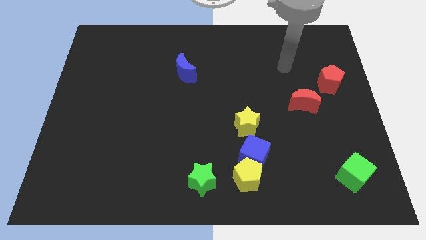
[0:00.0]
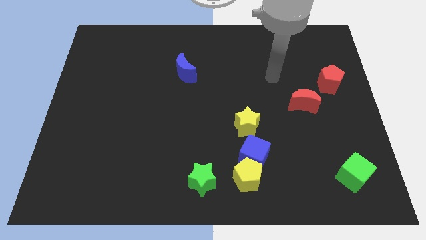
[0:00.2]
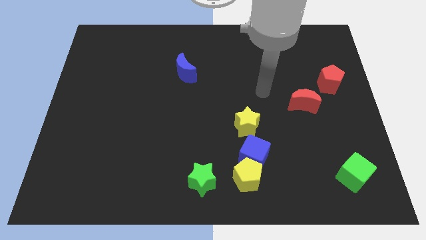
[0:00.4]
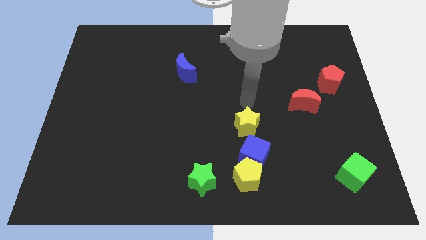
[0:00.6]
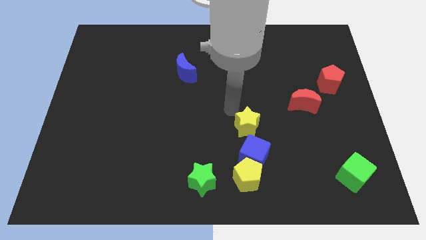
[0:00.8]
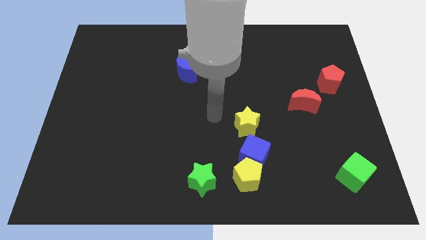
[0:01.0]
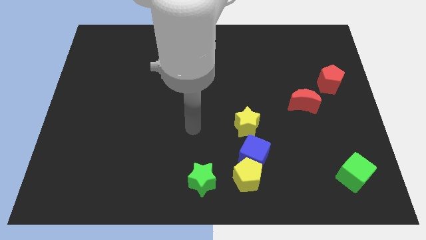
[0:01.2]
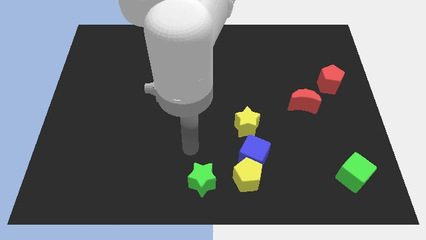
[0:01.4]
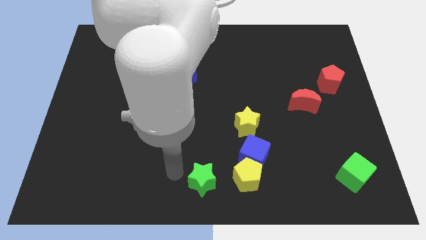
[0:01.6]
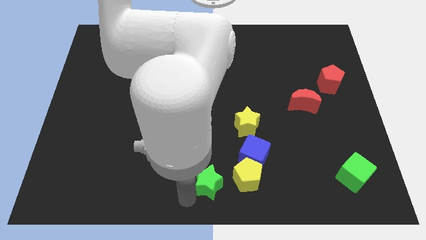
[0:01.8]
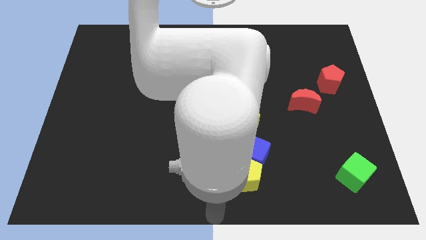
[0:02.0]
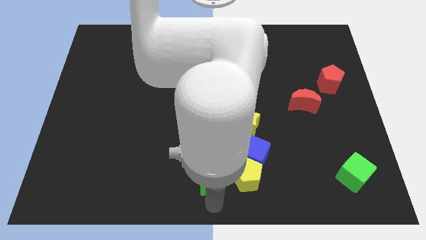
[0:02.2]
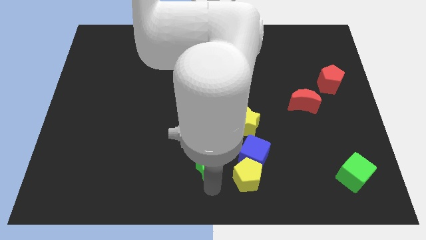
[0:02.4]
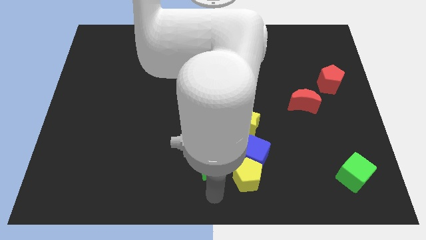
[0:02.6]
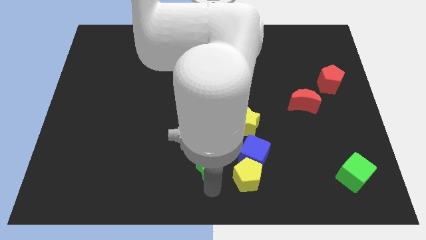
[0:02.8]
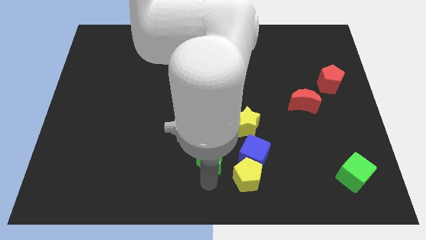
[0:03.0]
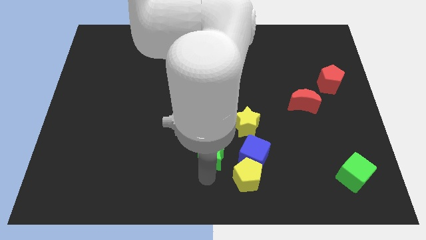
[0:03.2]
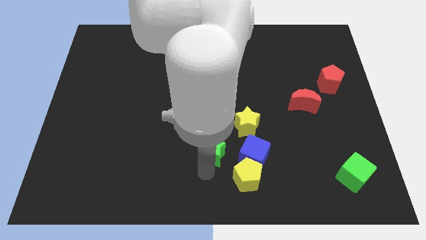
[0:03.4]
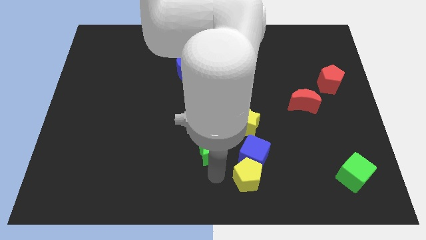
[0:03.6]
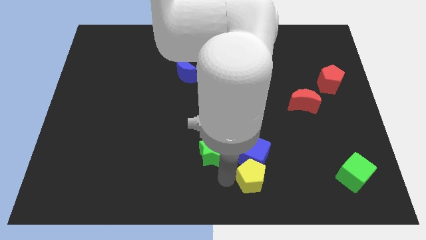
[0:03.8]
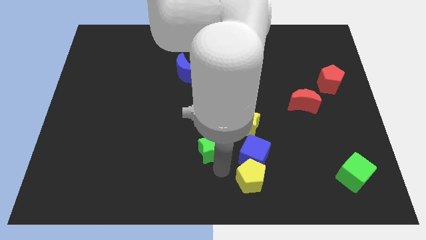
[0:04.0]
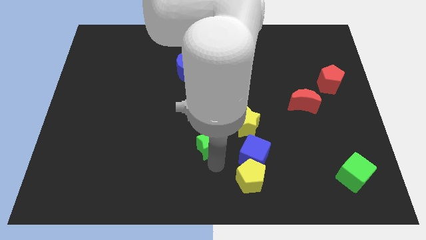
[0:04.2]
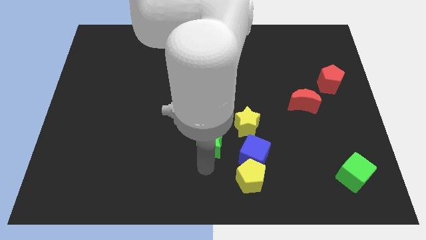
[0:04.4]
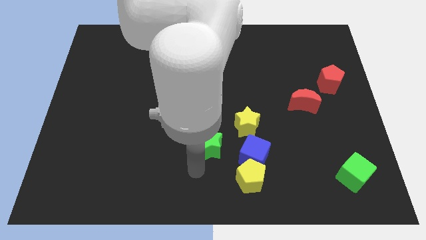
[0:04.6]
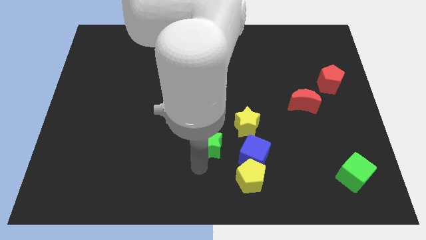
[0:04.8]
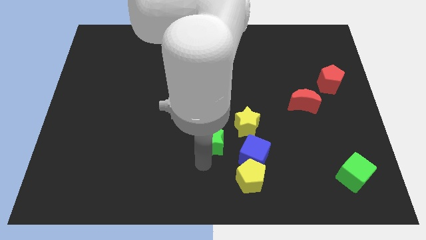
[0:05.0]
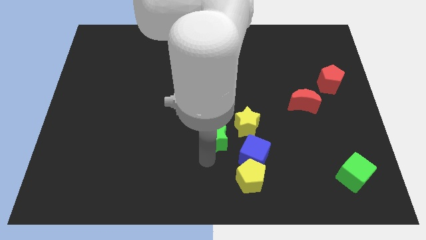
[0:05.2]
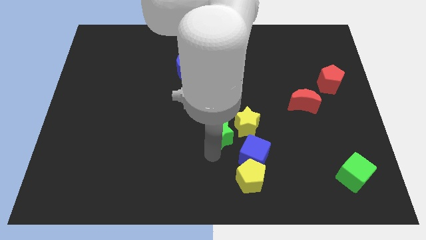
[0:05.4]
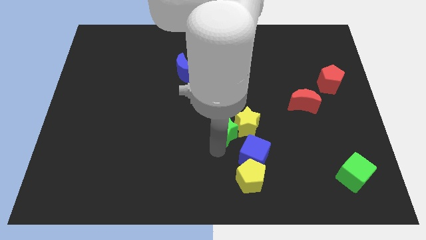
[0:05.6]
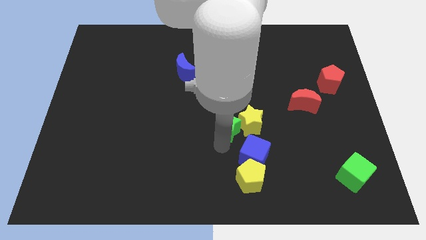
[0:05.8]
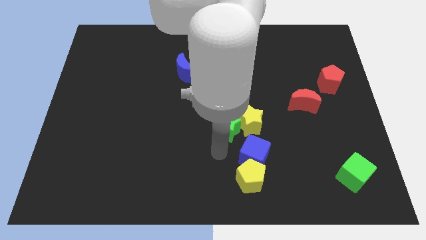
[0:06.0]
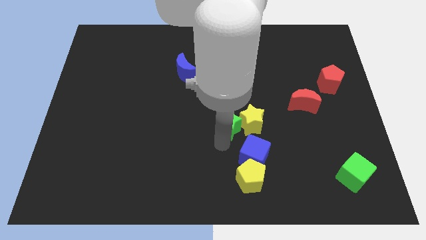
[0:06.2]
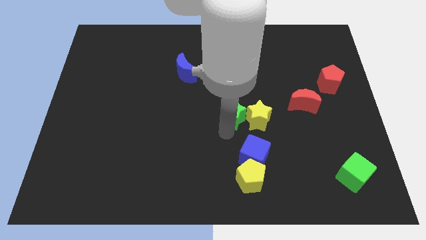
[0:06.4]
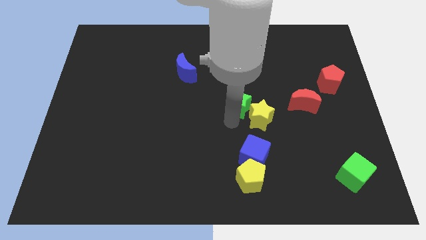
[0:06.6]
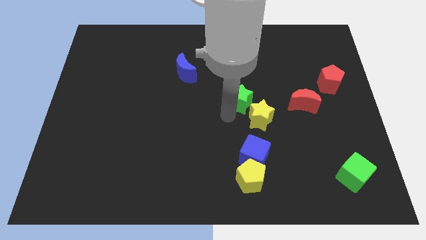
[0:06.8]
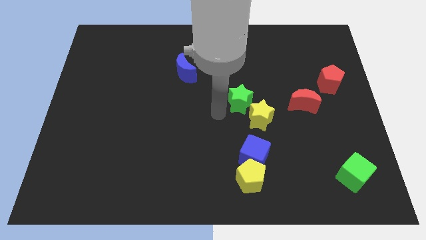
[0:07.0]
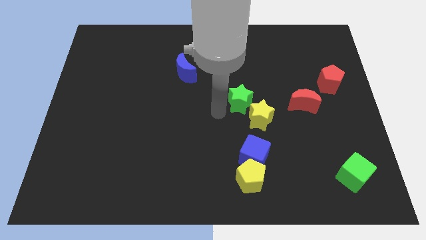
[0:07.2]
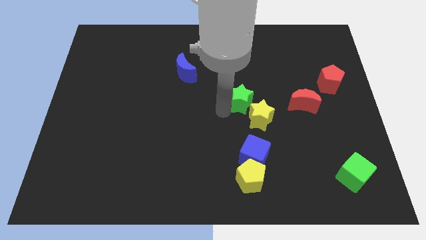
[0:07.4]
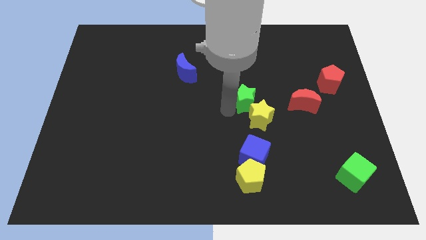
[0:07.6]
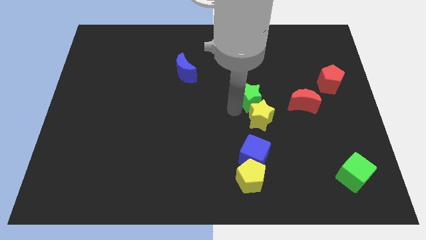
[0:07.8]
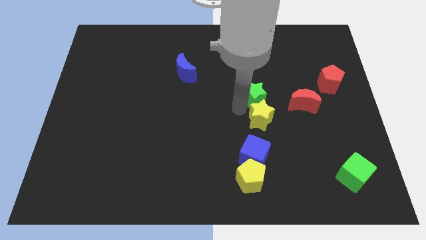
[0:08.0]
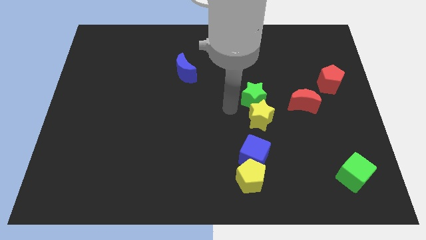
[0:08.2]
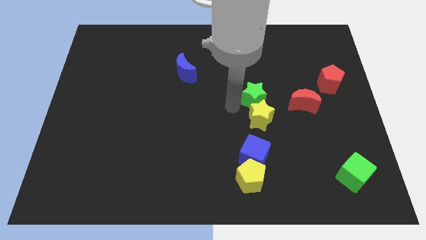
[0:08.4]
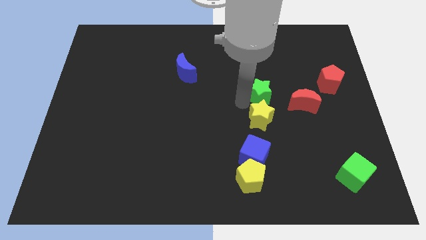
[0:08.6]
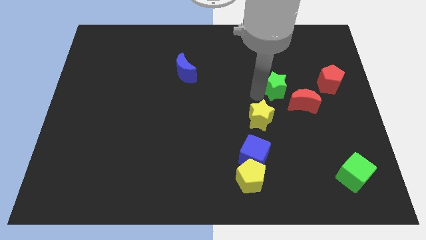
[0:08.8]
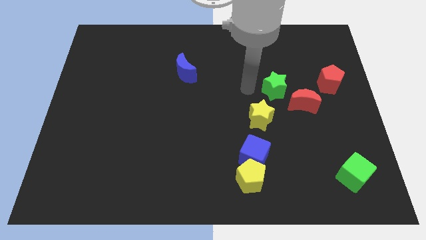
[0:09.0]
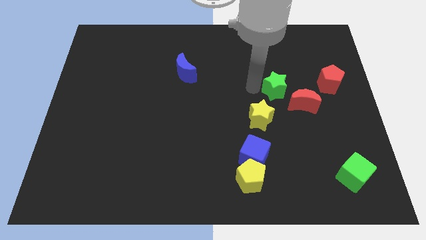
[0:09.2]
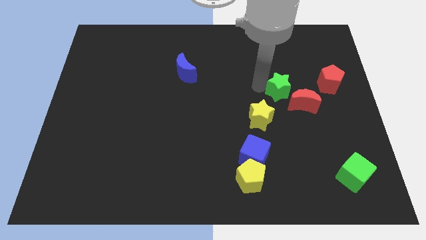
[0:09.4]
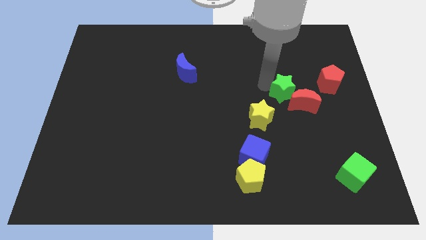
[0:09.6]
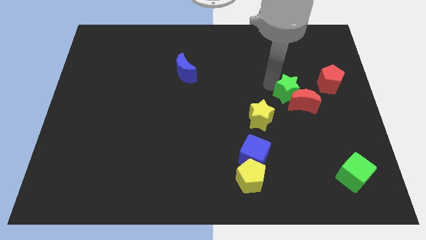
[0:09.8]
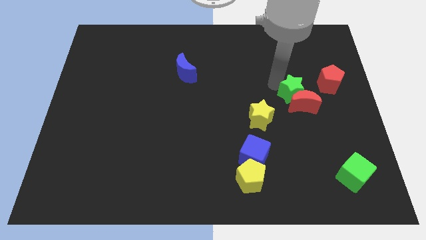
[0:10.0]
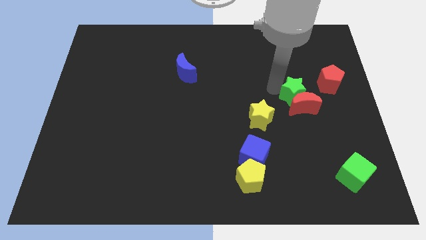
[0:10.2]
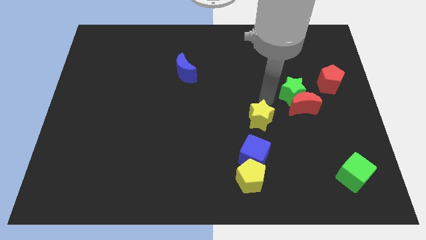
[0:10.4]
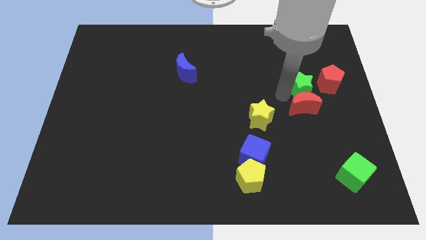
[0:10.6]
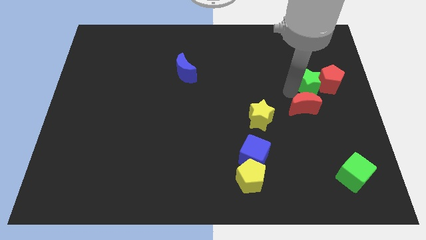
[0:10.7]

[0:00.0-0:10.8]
push the green star close to the red pentagon

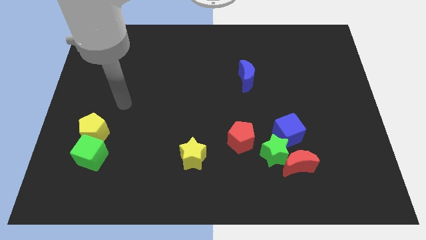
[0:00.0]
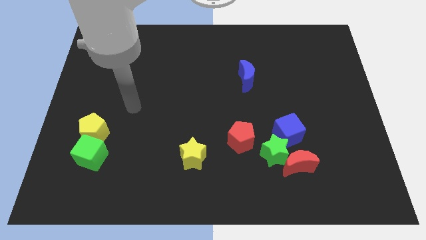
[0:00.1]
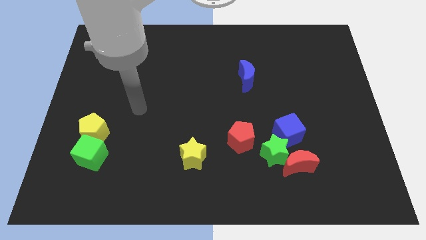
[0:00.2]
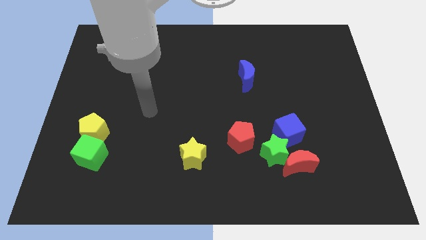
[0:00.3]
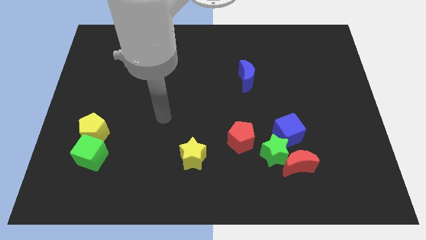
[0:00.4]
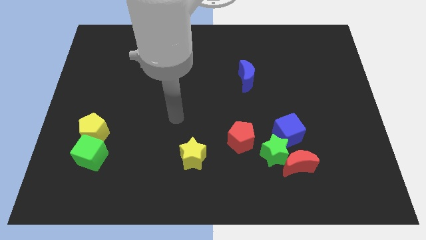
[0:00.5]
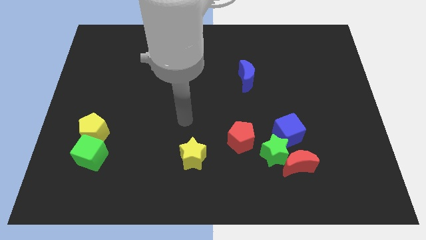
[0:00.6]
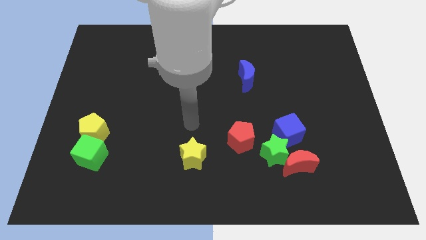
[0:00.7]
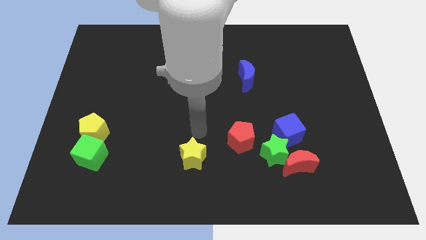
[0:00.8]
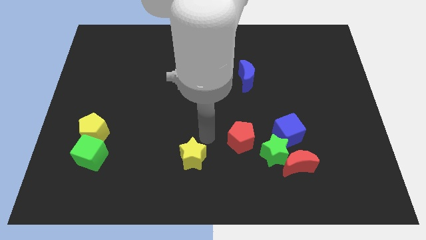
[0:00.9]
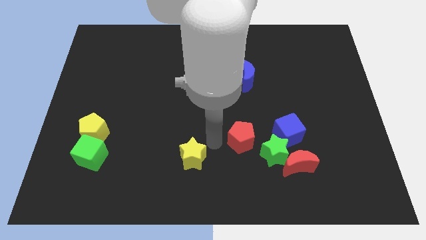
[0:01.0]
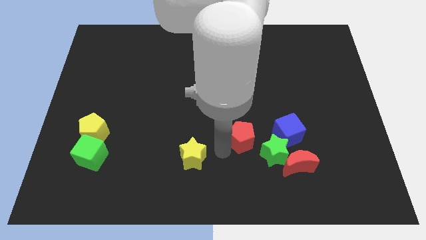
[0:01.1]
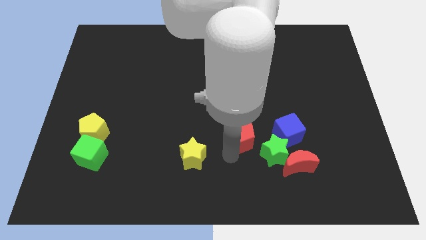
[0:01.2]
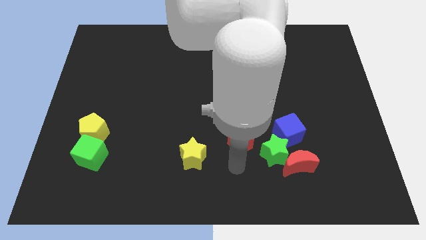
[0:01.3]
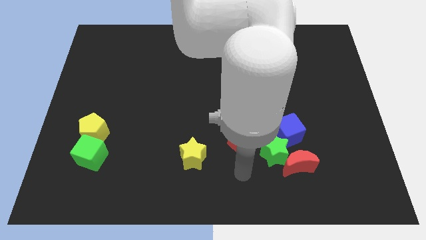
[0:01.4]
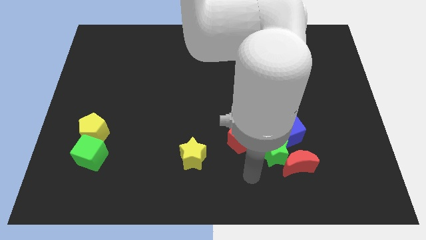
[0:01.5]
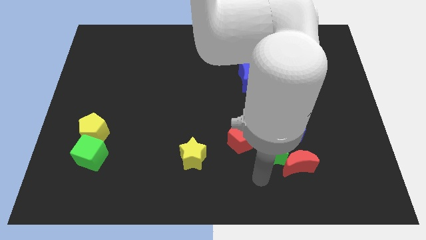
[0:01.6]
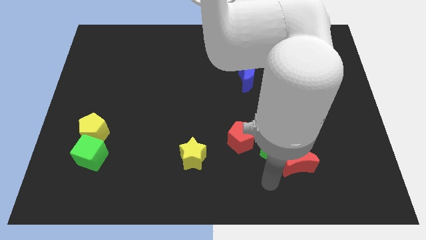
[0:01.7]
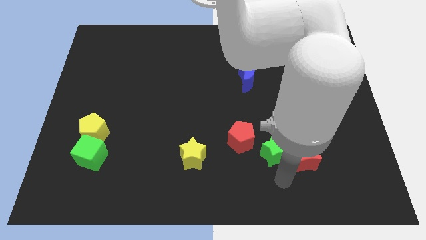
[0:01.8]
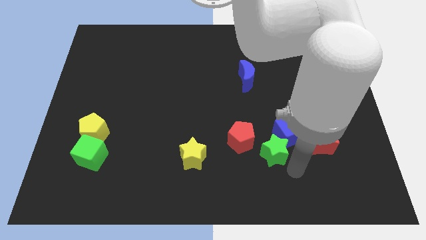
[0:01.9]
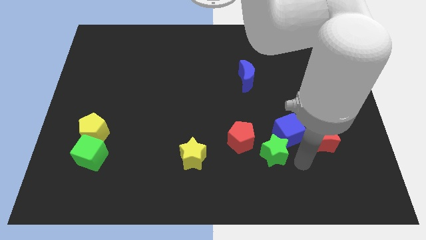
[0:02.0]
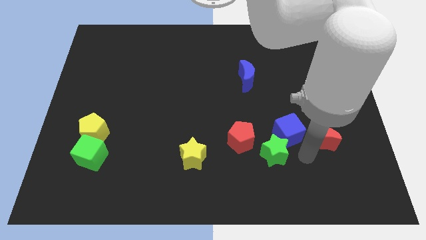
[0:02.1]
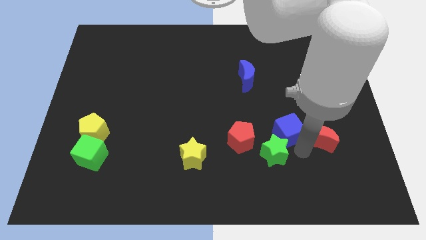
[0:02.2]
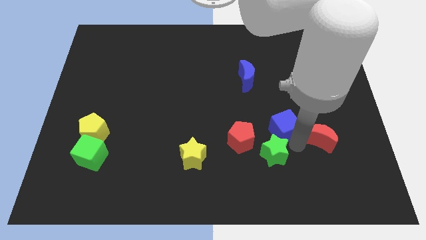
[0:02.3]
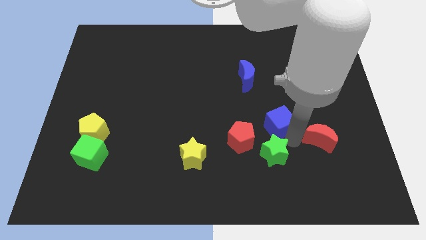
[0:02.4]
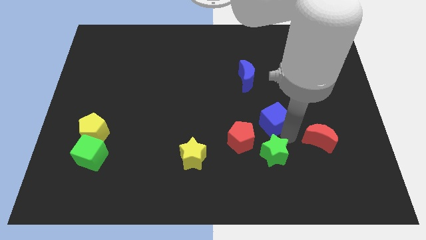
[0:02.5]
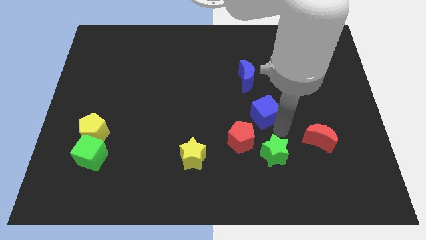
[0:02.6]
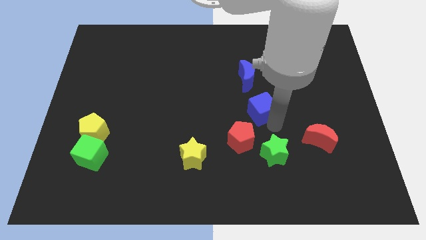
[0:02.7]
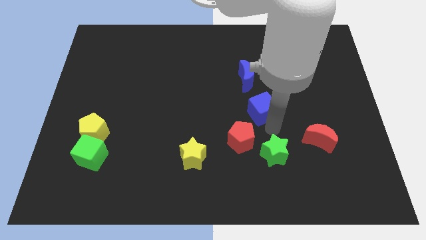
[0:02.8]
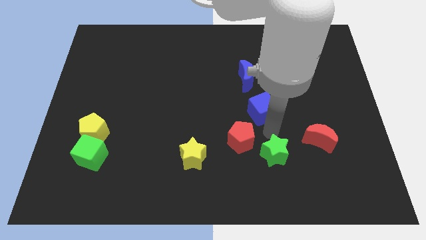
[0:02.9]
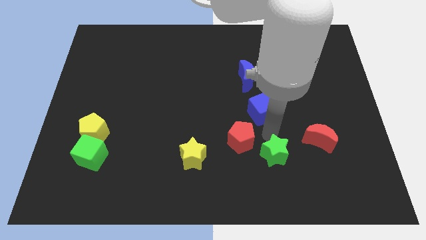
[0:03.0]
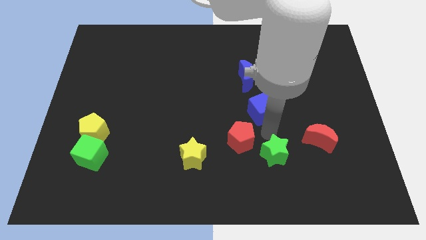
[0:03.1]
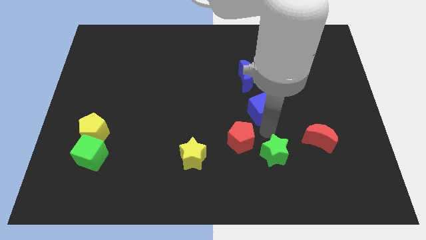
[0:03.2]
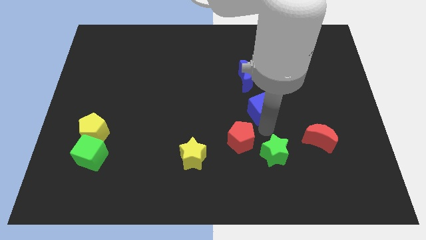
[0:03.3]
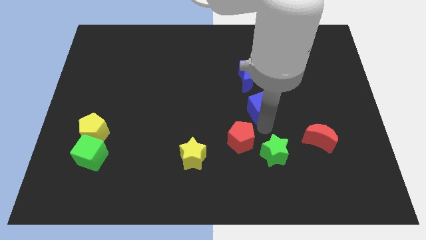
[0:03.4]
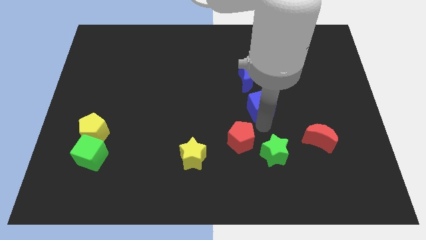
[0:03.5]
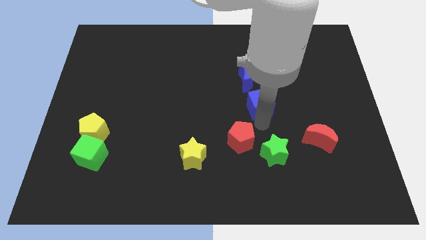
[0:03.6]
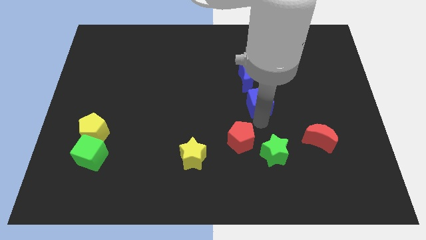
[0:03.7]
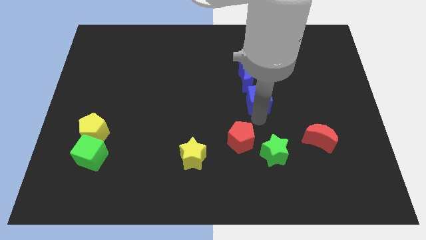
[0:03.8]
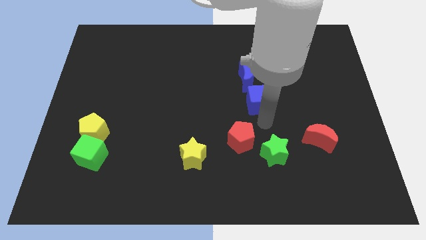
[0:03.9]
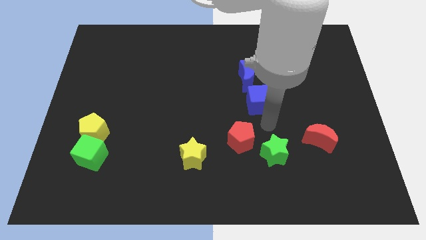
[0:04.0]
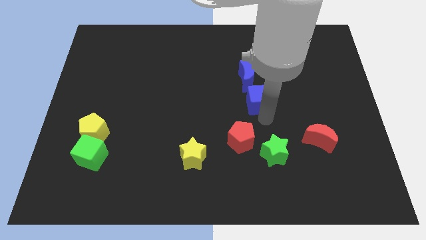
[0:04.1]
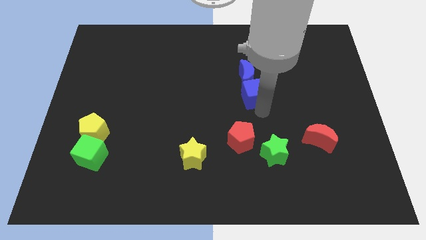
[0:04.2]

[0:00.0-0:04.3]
move the blue cube close to the blue moon
